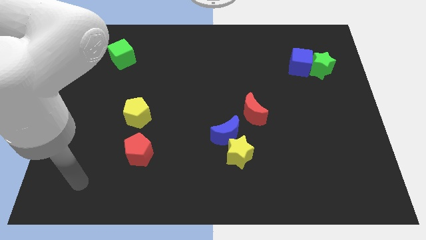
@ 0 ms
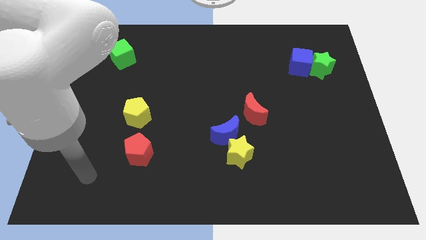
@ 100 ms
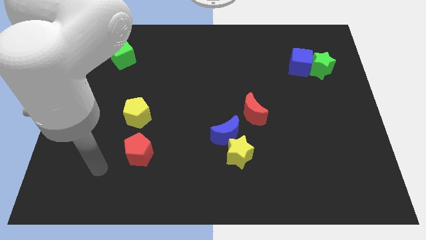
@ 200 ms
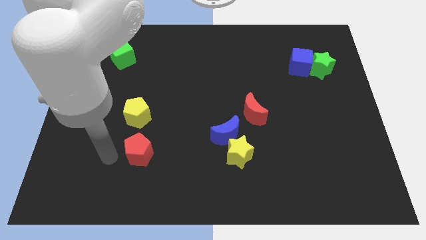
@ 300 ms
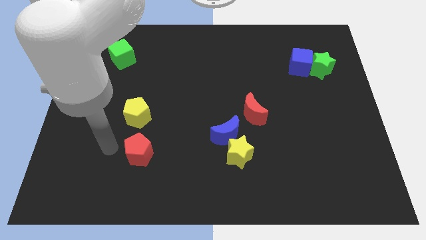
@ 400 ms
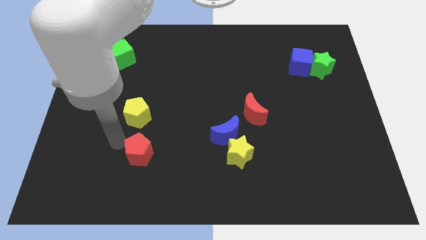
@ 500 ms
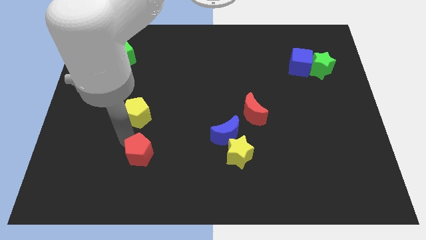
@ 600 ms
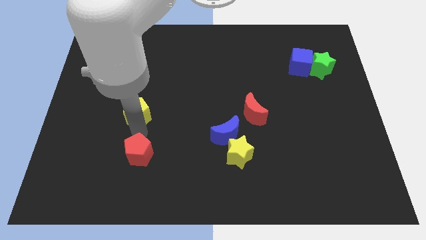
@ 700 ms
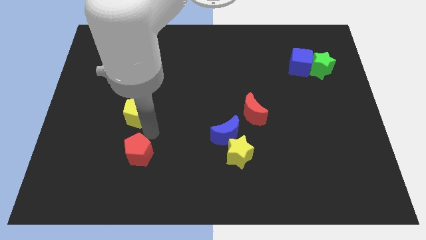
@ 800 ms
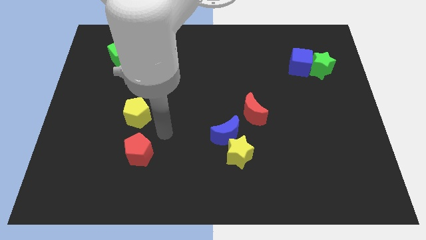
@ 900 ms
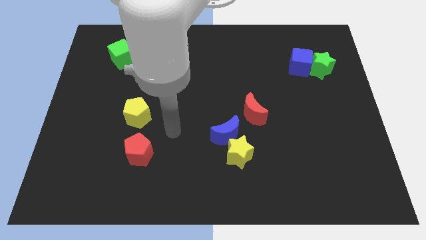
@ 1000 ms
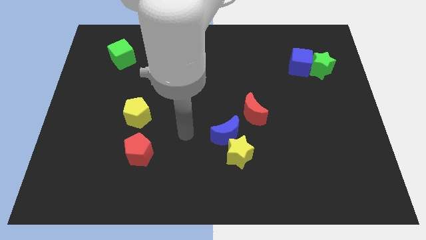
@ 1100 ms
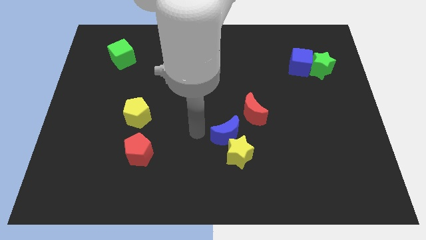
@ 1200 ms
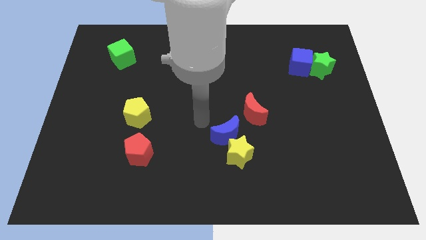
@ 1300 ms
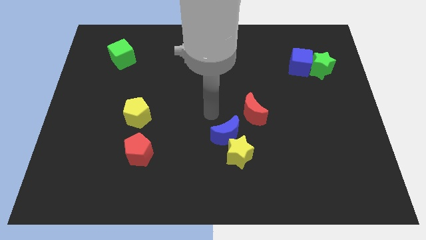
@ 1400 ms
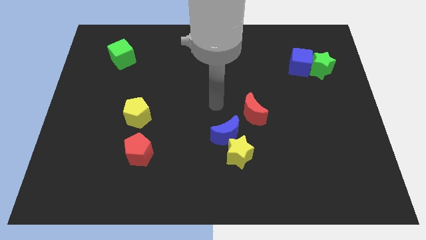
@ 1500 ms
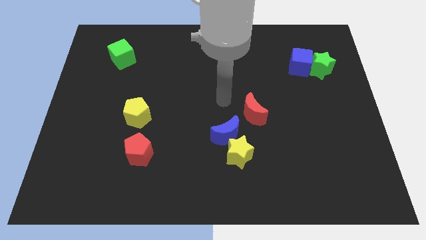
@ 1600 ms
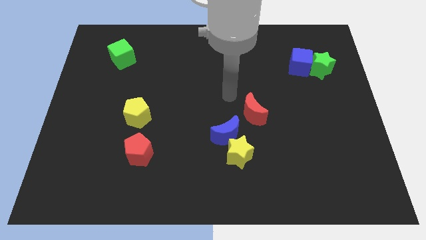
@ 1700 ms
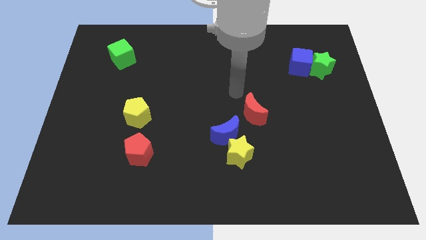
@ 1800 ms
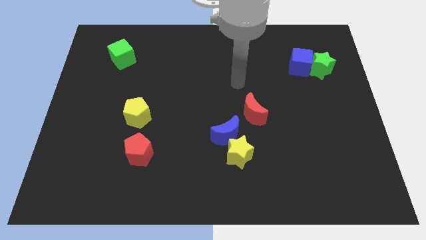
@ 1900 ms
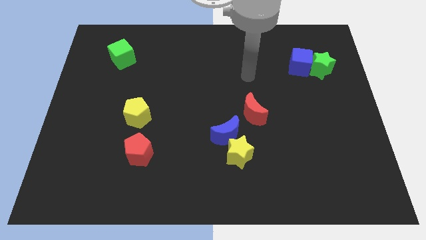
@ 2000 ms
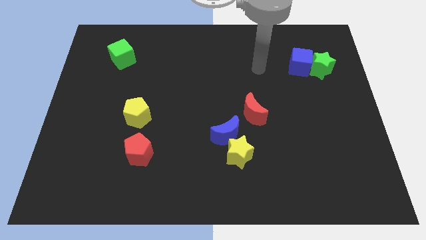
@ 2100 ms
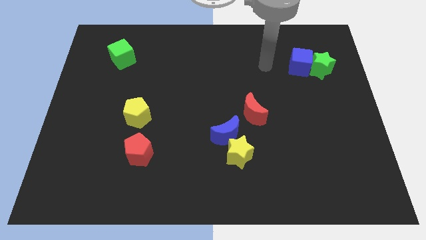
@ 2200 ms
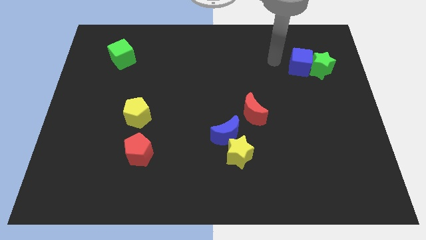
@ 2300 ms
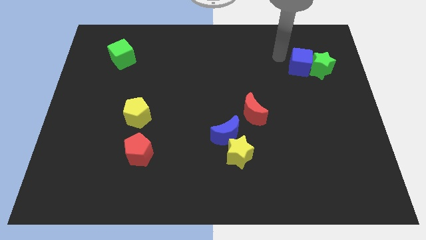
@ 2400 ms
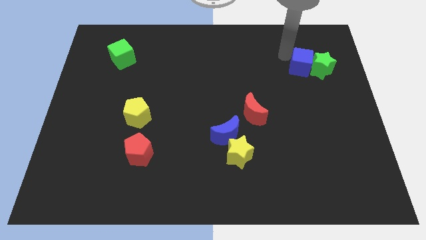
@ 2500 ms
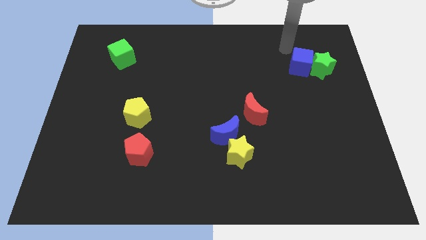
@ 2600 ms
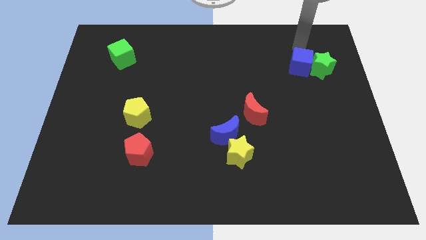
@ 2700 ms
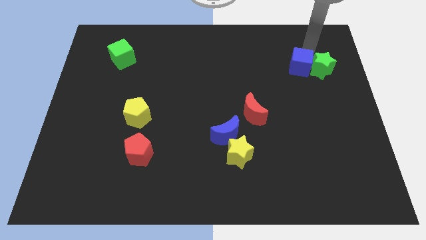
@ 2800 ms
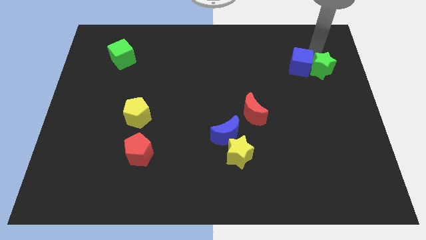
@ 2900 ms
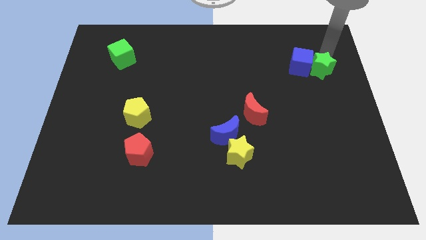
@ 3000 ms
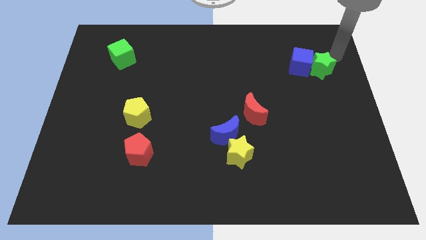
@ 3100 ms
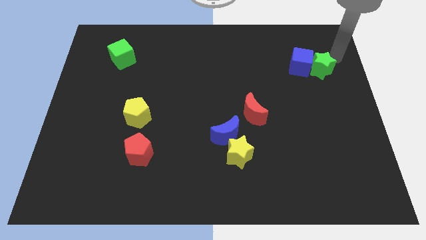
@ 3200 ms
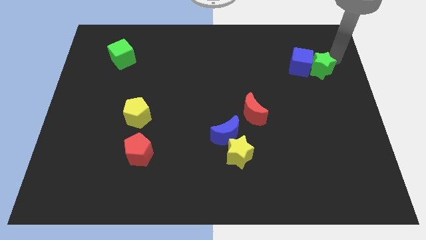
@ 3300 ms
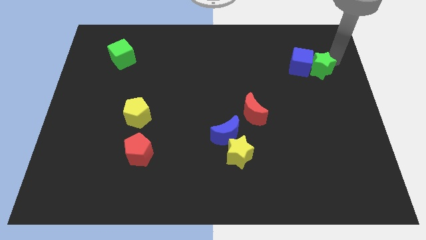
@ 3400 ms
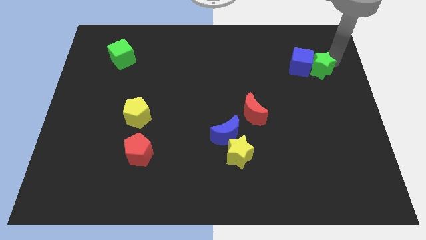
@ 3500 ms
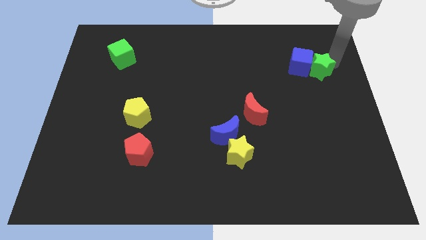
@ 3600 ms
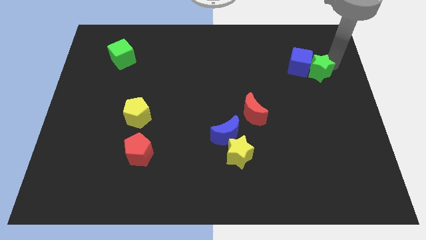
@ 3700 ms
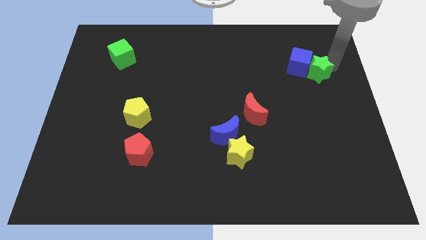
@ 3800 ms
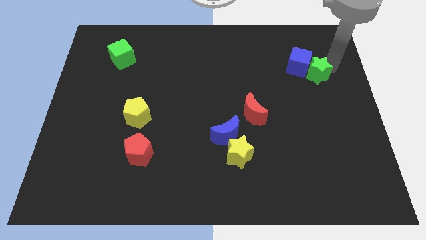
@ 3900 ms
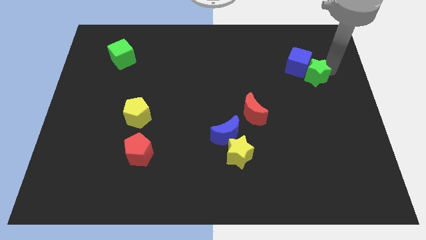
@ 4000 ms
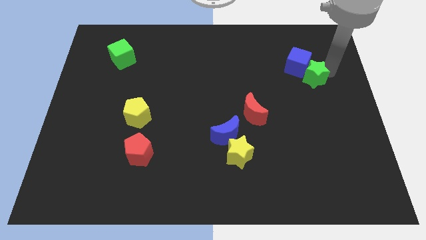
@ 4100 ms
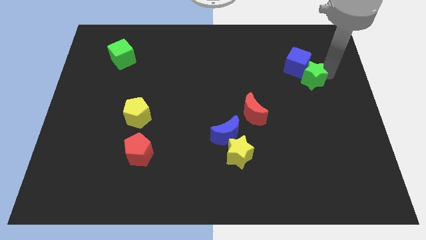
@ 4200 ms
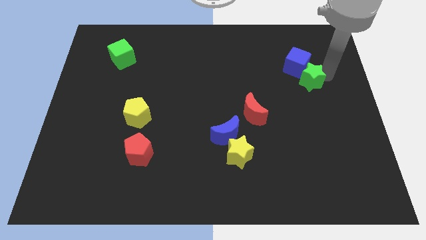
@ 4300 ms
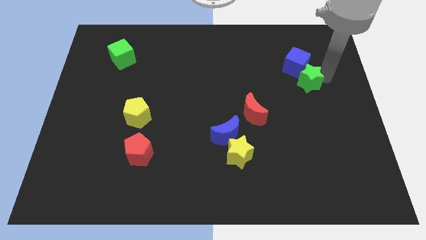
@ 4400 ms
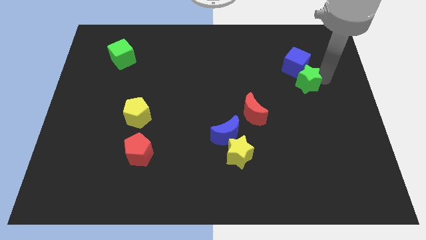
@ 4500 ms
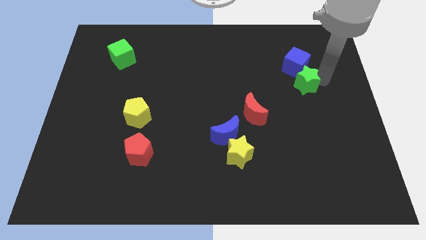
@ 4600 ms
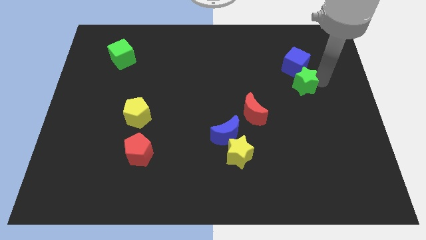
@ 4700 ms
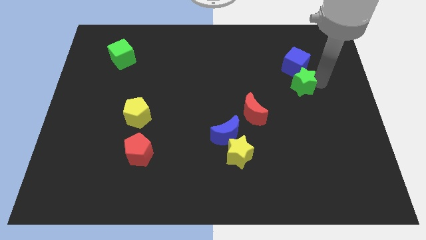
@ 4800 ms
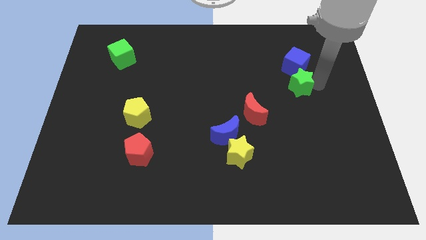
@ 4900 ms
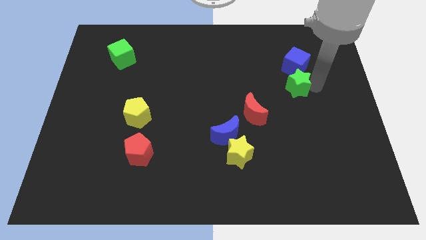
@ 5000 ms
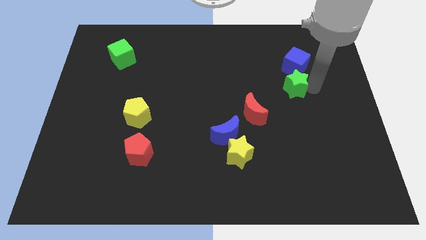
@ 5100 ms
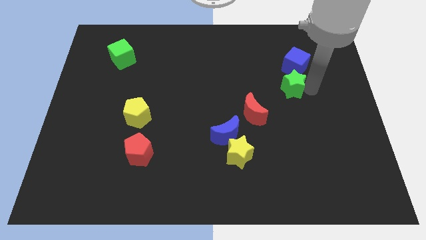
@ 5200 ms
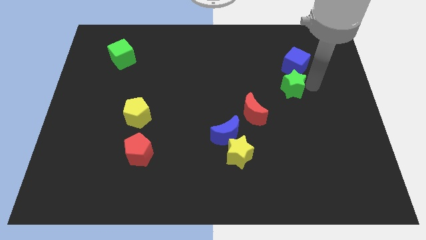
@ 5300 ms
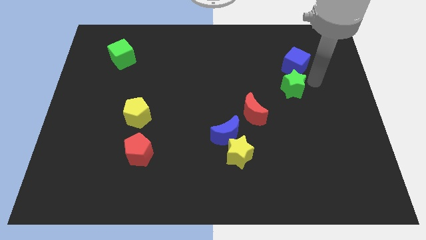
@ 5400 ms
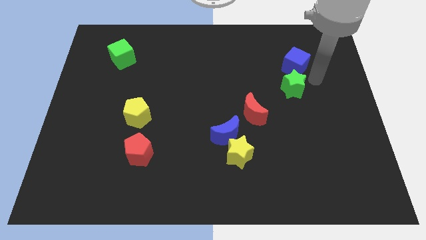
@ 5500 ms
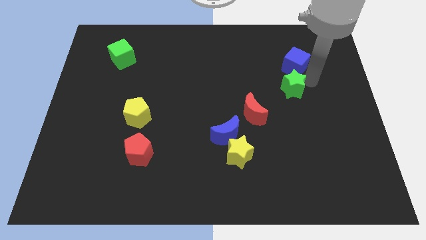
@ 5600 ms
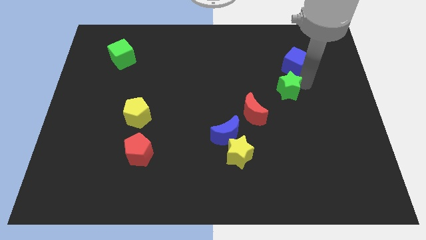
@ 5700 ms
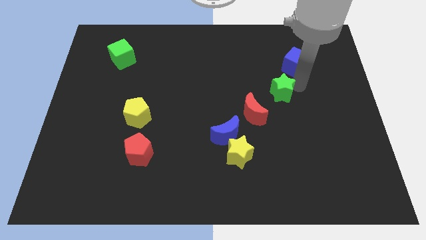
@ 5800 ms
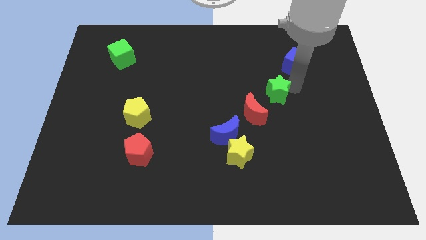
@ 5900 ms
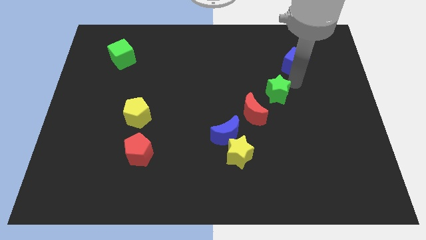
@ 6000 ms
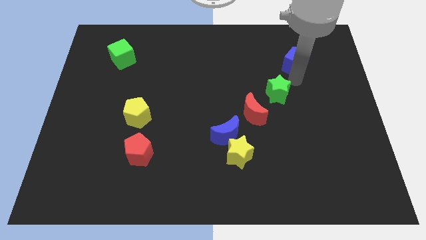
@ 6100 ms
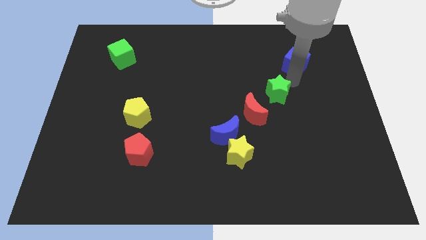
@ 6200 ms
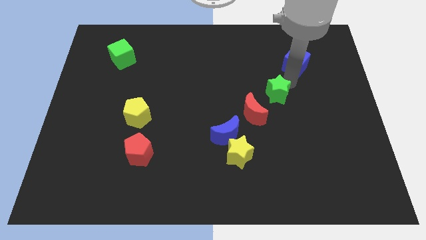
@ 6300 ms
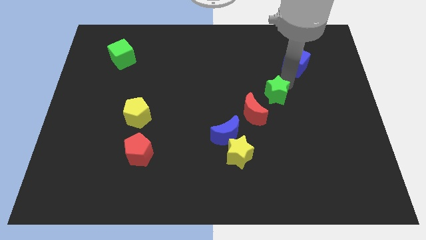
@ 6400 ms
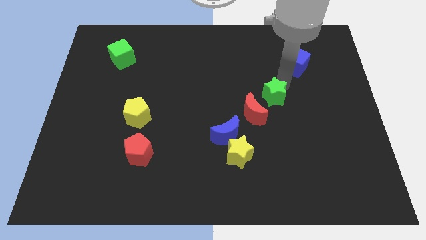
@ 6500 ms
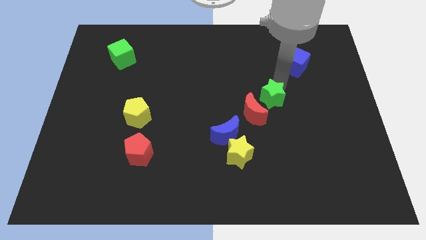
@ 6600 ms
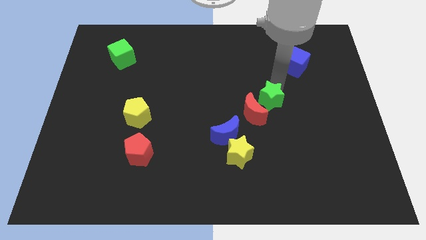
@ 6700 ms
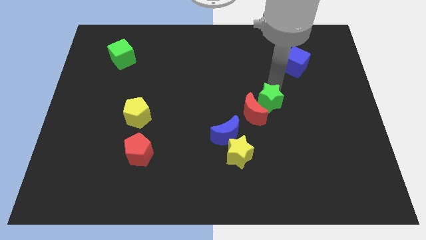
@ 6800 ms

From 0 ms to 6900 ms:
put the green star to the red moon

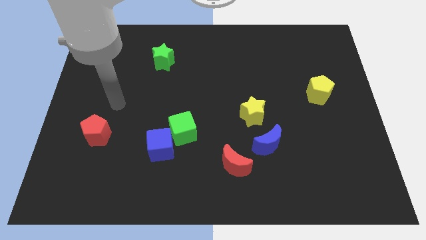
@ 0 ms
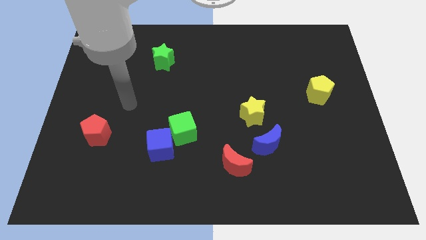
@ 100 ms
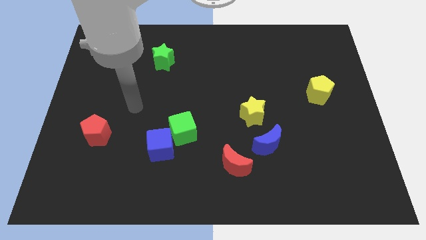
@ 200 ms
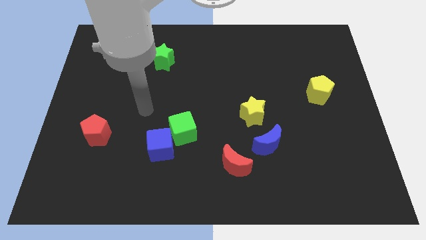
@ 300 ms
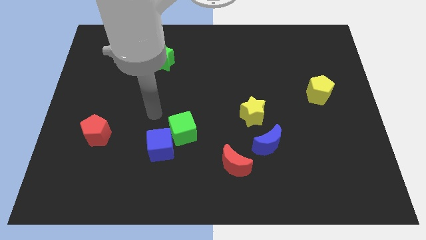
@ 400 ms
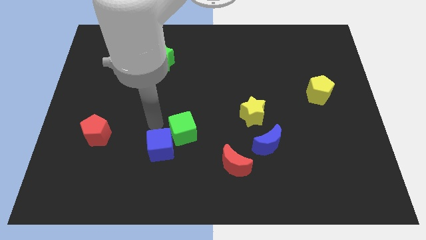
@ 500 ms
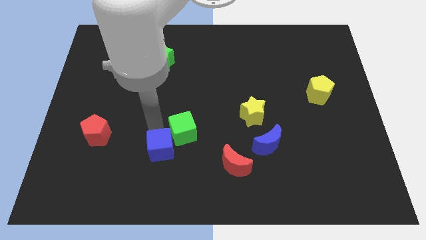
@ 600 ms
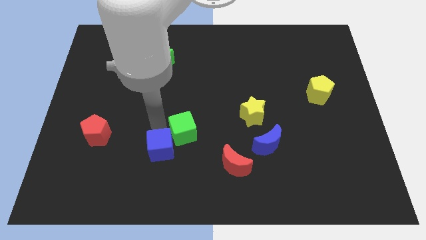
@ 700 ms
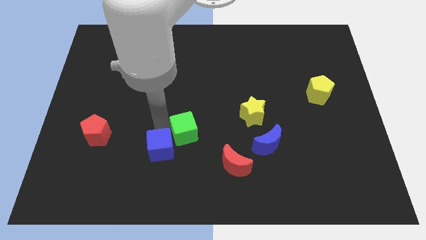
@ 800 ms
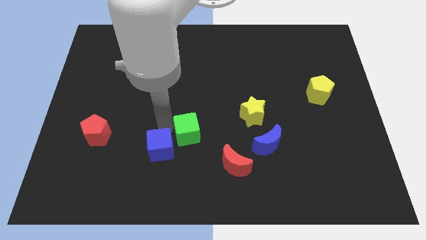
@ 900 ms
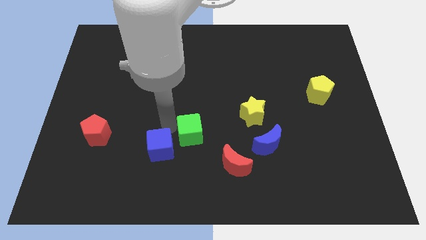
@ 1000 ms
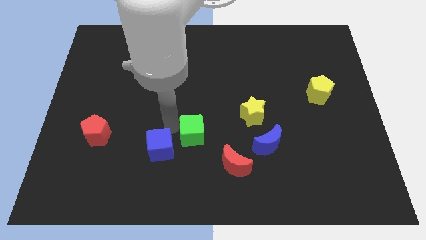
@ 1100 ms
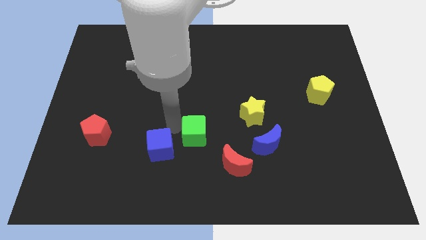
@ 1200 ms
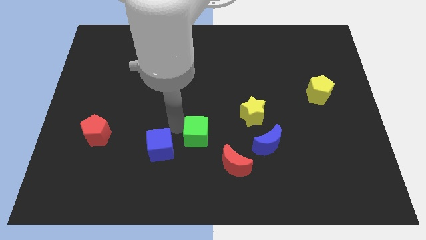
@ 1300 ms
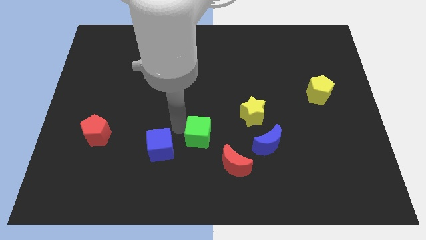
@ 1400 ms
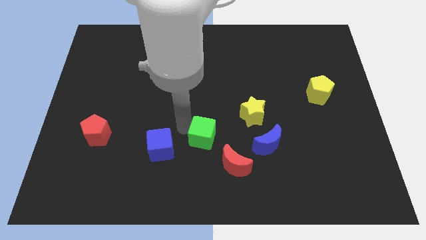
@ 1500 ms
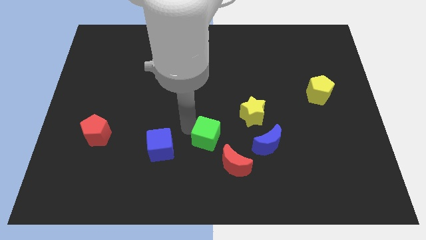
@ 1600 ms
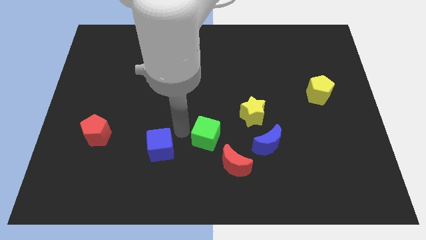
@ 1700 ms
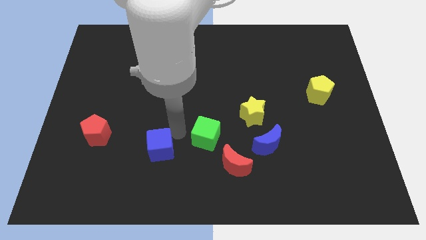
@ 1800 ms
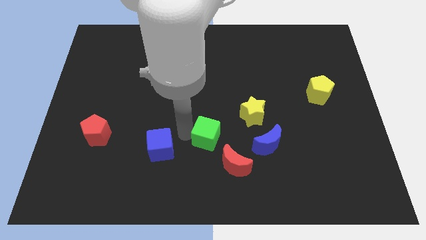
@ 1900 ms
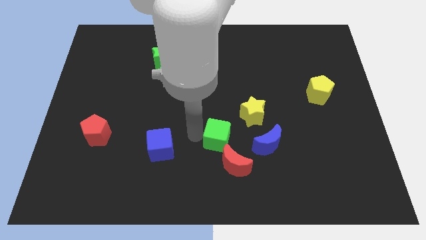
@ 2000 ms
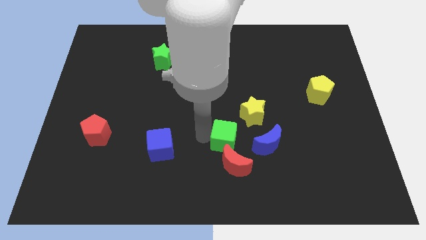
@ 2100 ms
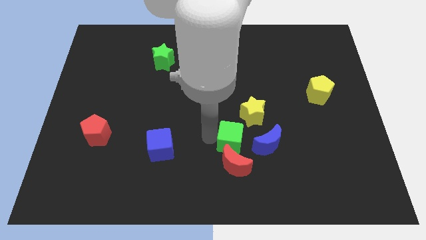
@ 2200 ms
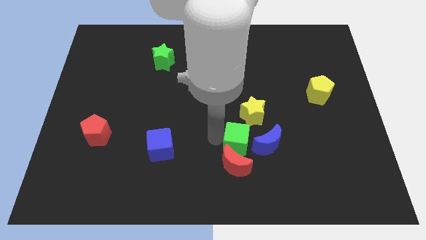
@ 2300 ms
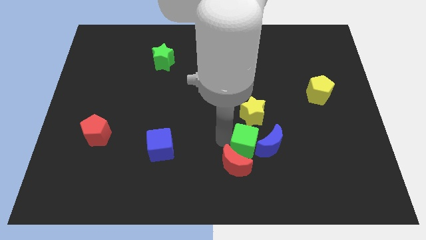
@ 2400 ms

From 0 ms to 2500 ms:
slide the green cube towards the blue moon
